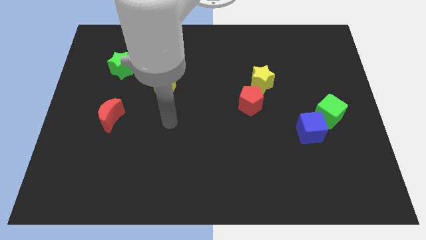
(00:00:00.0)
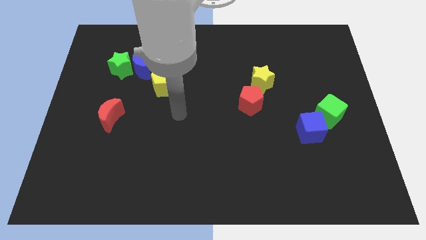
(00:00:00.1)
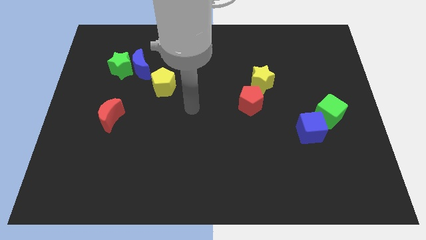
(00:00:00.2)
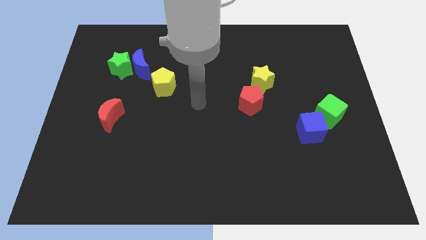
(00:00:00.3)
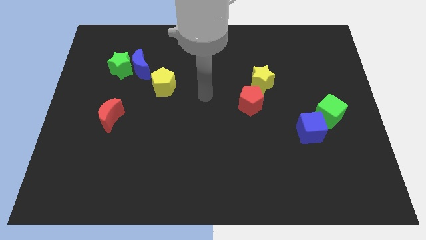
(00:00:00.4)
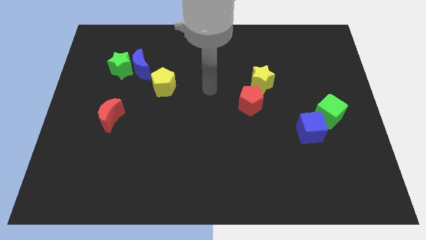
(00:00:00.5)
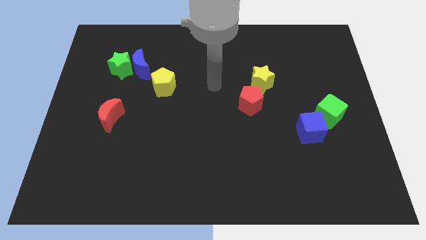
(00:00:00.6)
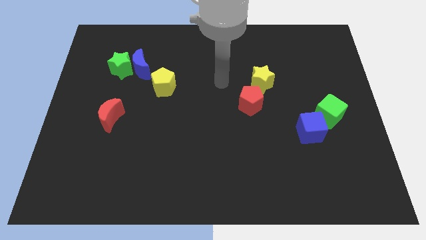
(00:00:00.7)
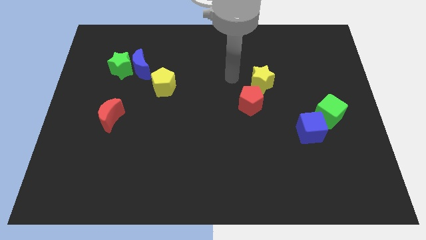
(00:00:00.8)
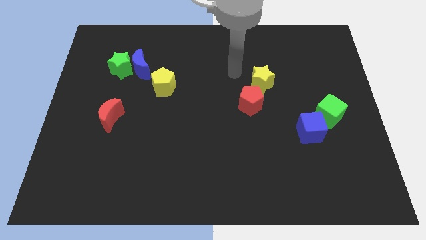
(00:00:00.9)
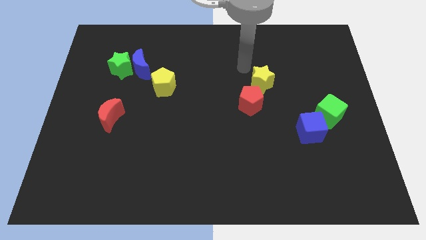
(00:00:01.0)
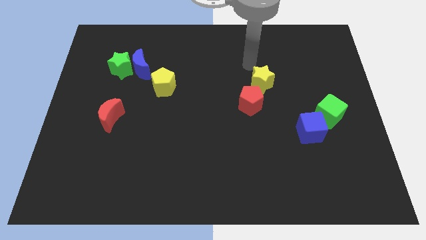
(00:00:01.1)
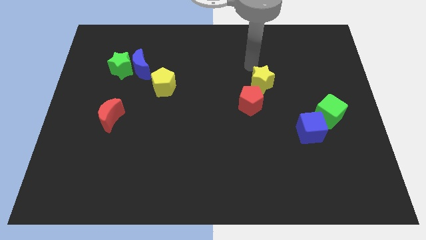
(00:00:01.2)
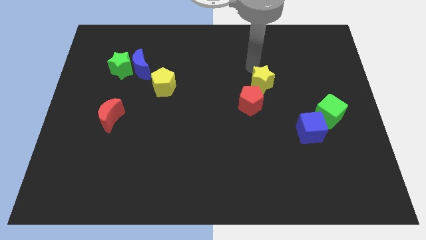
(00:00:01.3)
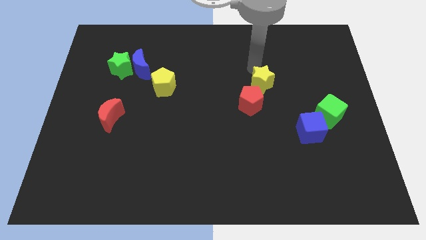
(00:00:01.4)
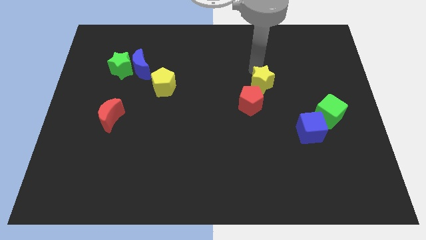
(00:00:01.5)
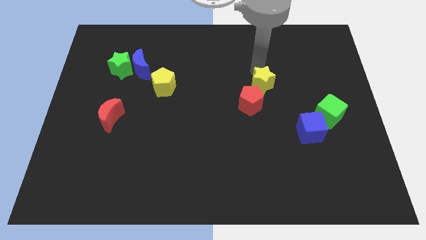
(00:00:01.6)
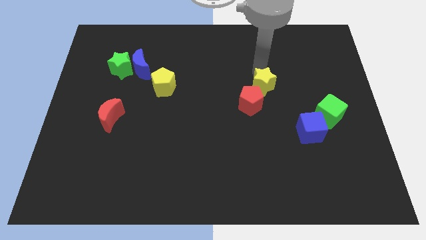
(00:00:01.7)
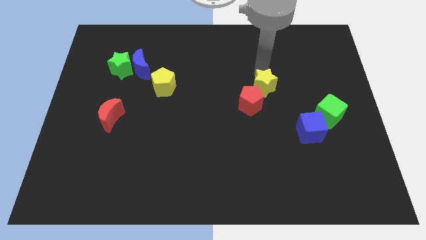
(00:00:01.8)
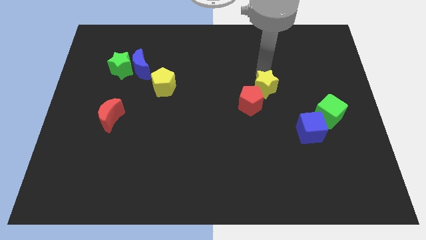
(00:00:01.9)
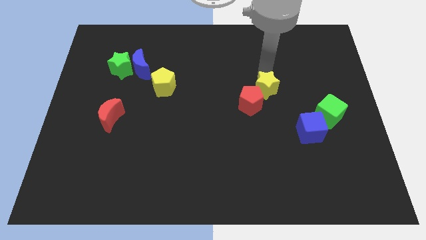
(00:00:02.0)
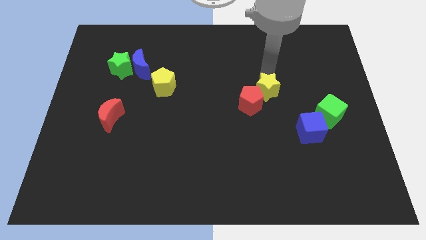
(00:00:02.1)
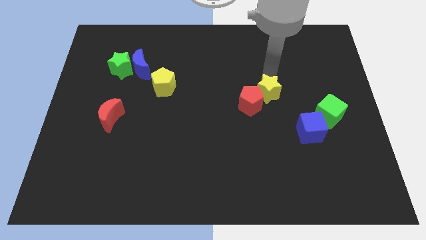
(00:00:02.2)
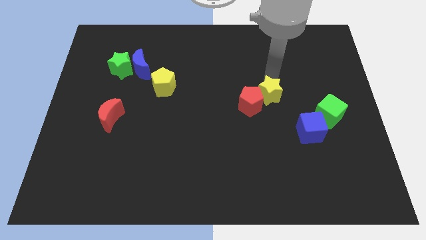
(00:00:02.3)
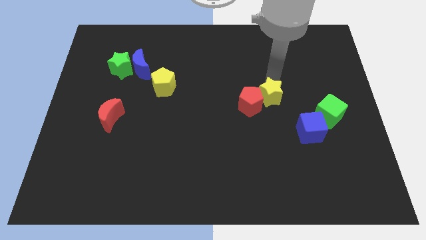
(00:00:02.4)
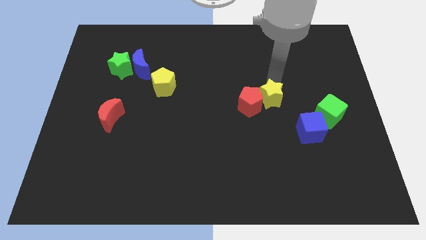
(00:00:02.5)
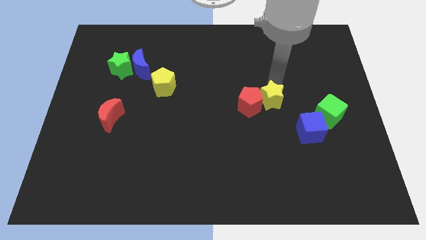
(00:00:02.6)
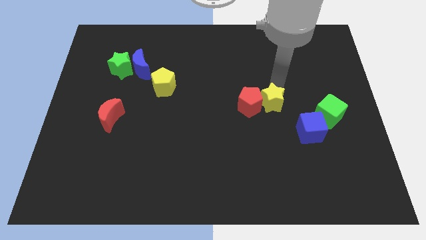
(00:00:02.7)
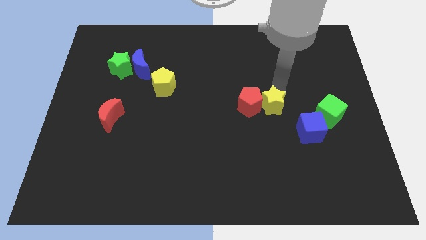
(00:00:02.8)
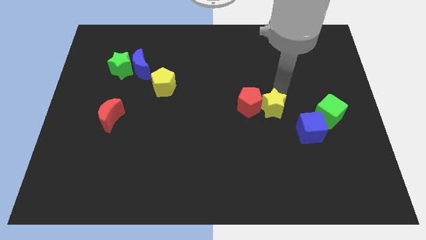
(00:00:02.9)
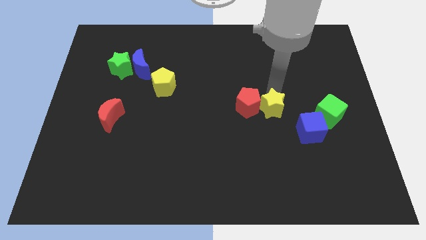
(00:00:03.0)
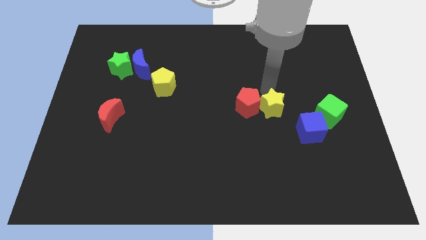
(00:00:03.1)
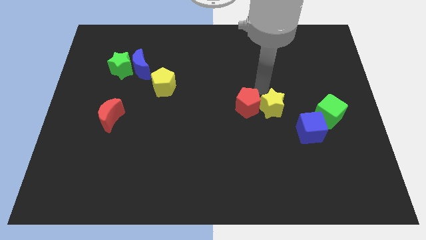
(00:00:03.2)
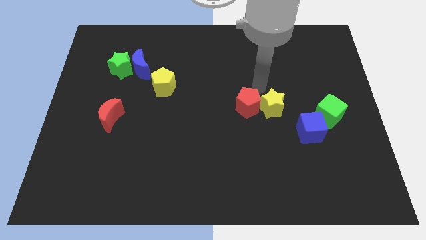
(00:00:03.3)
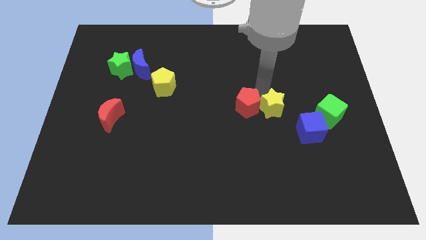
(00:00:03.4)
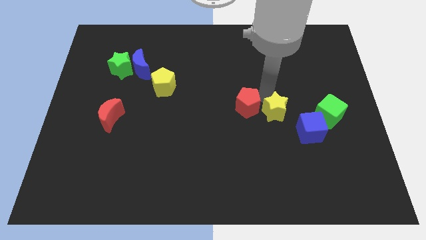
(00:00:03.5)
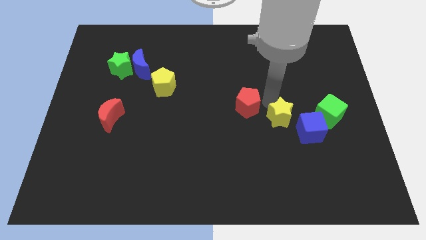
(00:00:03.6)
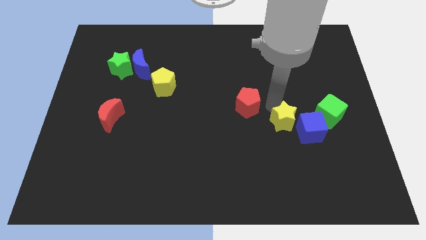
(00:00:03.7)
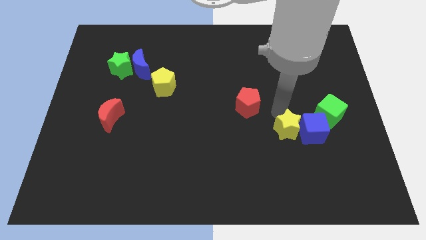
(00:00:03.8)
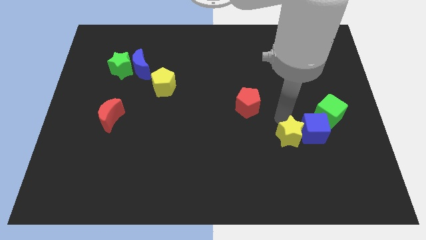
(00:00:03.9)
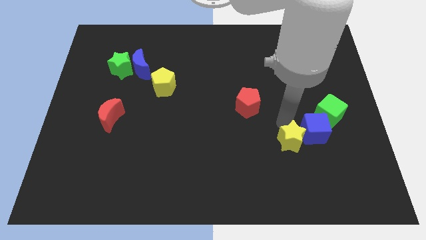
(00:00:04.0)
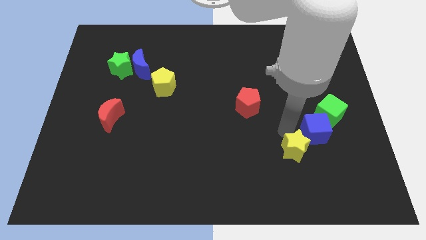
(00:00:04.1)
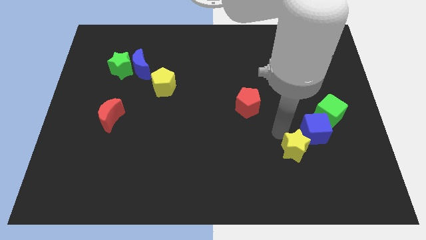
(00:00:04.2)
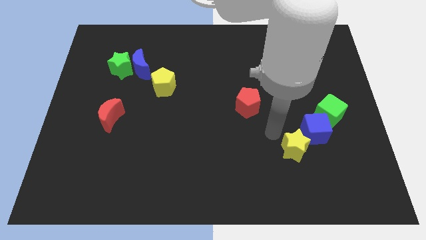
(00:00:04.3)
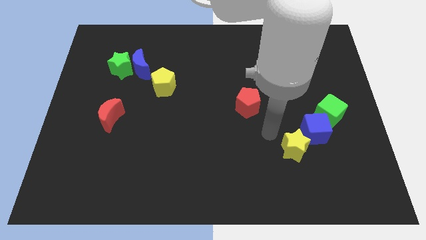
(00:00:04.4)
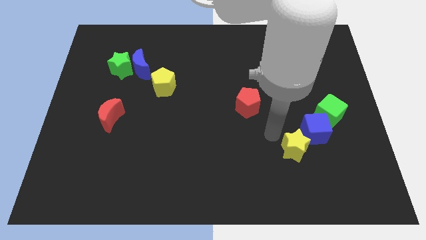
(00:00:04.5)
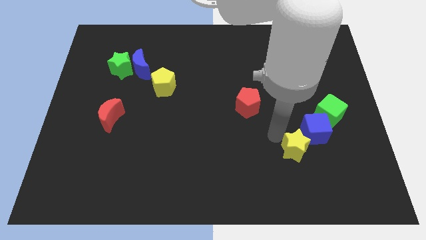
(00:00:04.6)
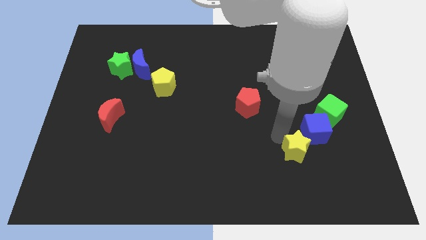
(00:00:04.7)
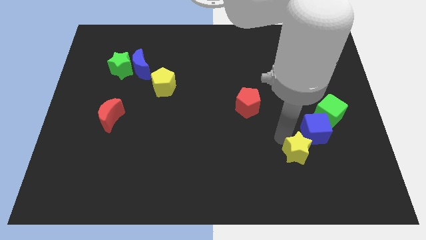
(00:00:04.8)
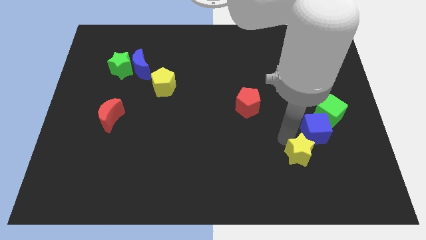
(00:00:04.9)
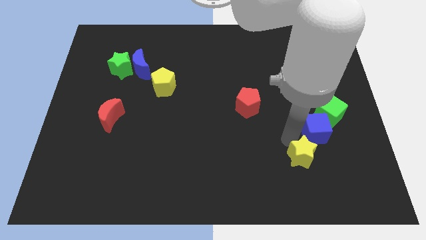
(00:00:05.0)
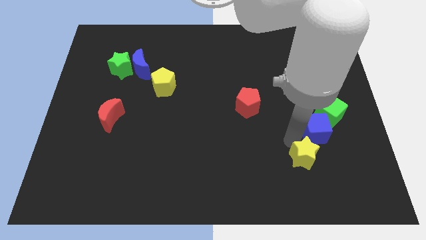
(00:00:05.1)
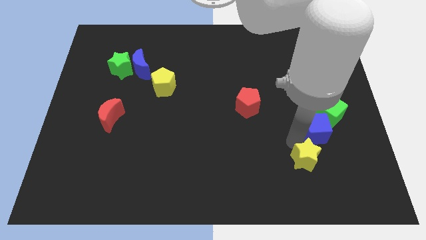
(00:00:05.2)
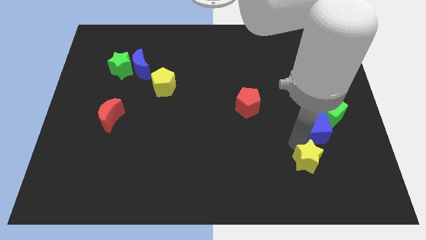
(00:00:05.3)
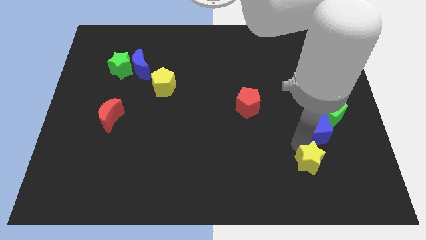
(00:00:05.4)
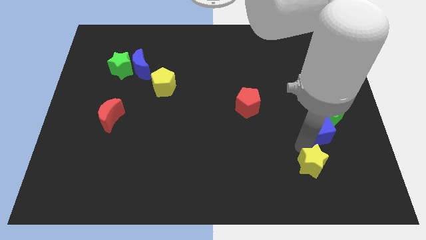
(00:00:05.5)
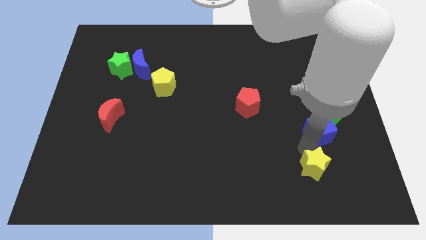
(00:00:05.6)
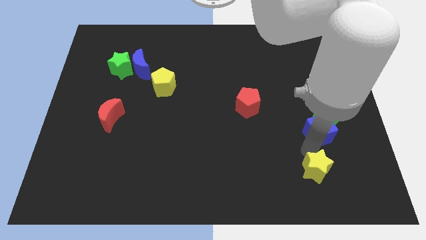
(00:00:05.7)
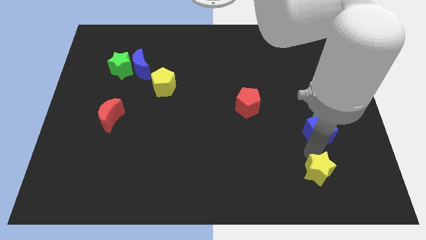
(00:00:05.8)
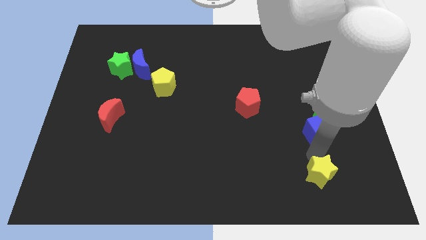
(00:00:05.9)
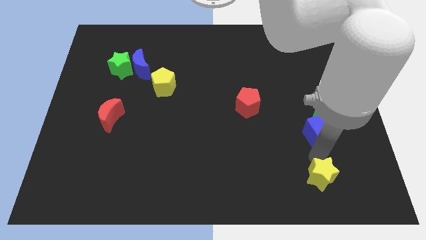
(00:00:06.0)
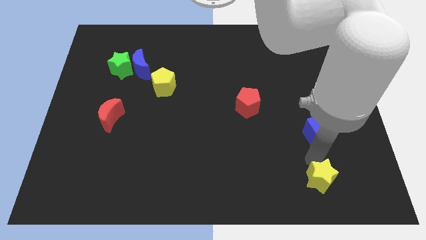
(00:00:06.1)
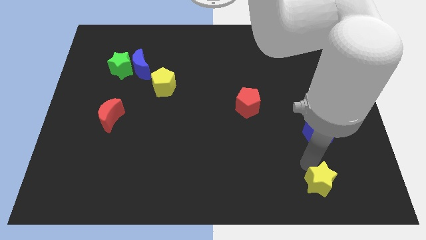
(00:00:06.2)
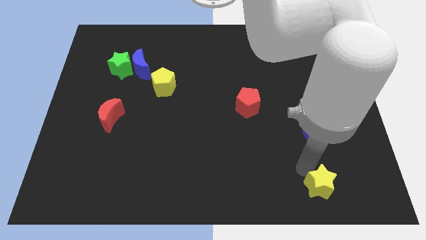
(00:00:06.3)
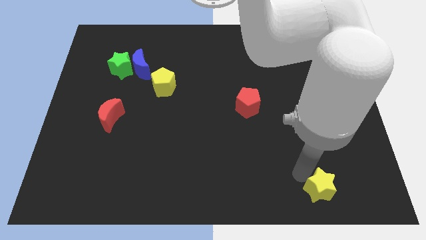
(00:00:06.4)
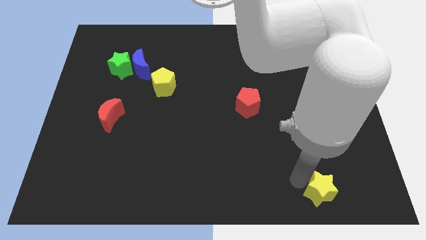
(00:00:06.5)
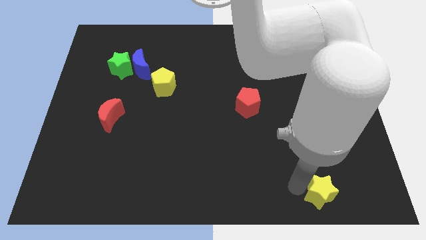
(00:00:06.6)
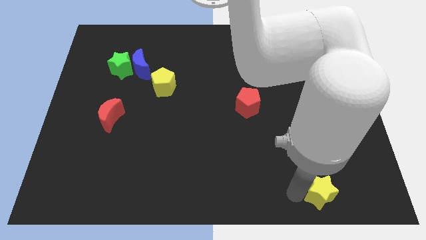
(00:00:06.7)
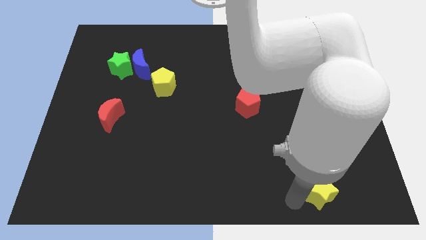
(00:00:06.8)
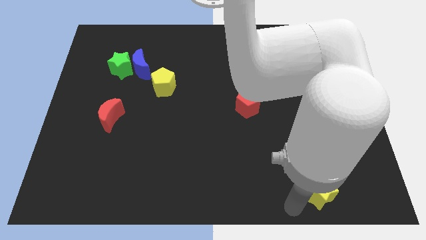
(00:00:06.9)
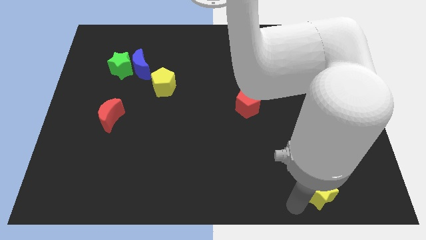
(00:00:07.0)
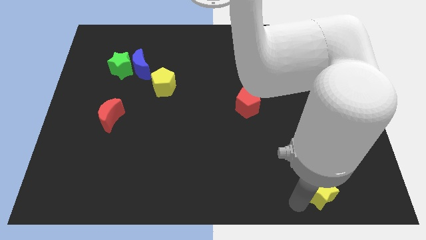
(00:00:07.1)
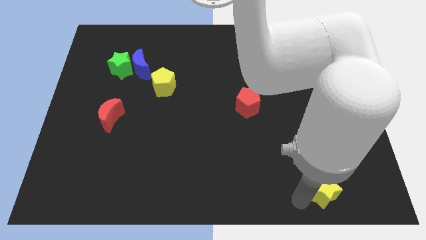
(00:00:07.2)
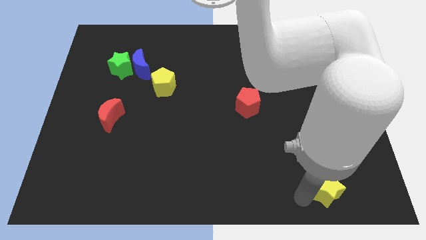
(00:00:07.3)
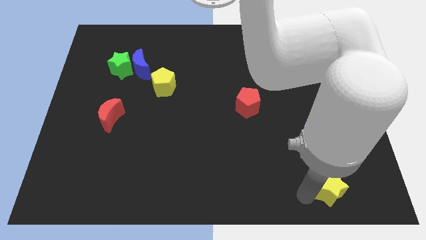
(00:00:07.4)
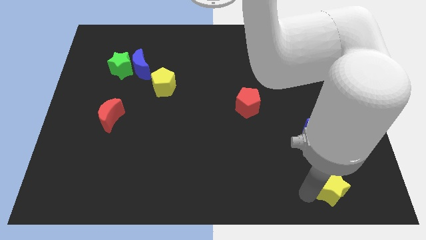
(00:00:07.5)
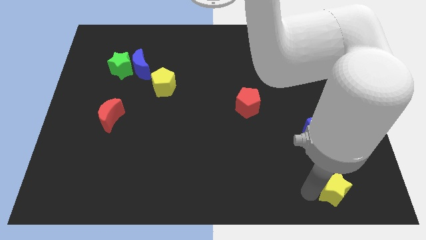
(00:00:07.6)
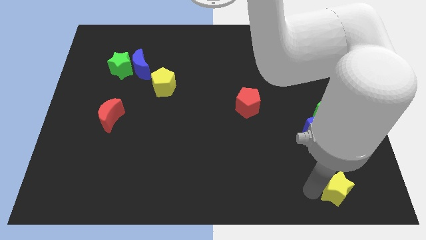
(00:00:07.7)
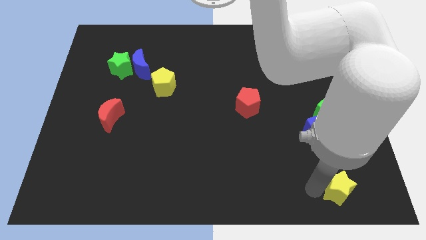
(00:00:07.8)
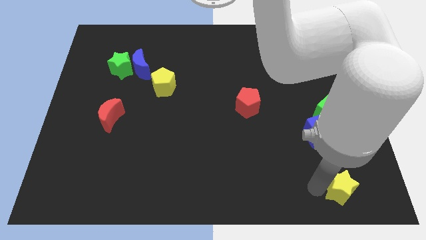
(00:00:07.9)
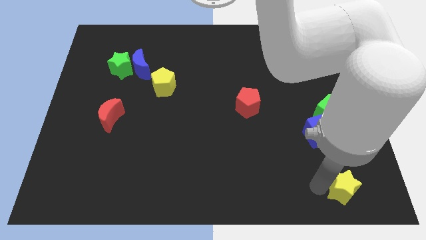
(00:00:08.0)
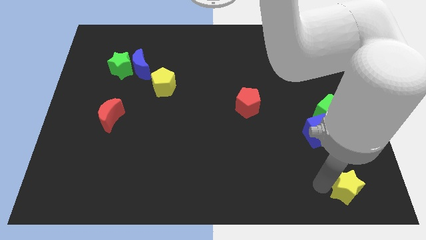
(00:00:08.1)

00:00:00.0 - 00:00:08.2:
move the yellow star to the lower right corner
